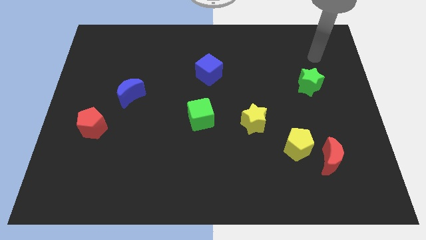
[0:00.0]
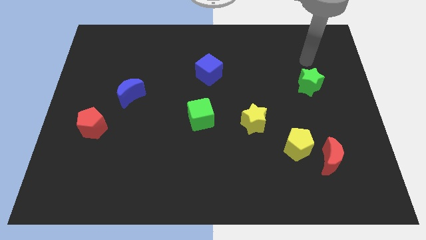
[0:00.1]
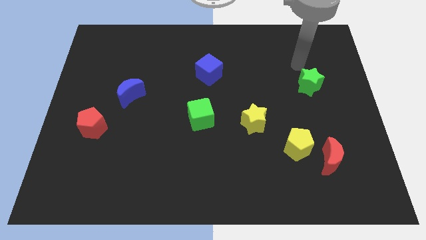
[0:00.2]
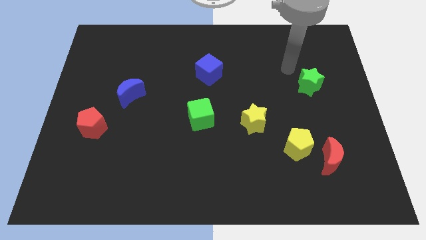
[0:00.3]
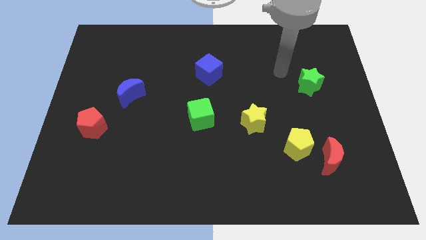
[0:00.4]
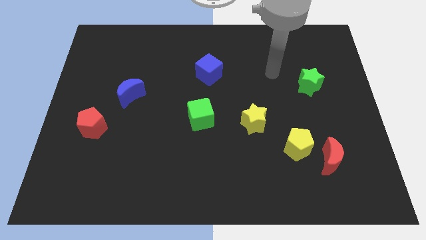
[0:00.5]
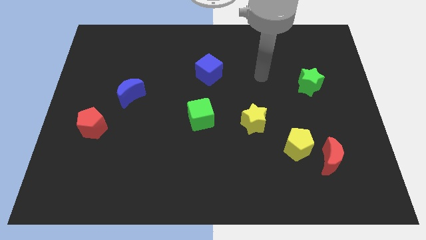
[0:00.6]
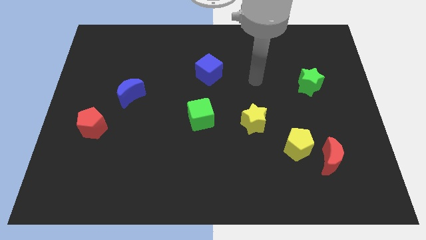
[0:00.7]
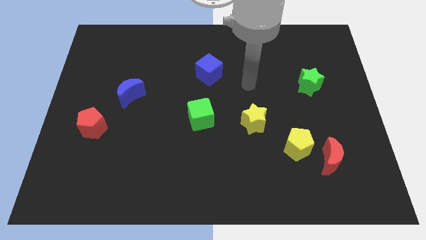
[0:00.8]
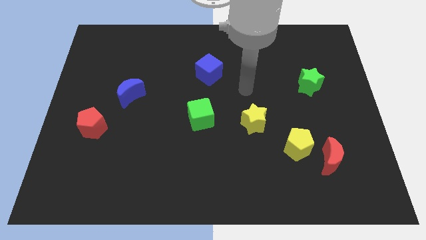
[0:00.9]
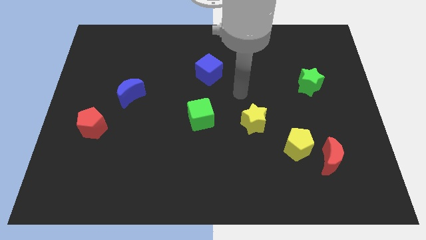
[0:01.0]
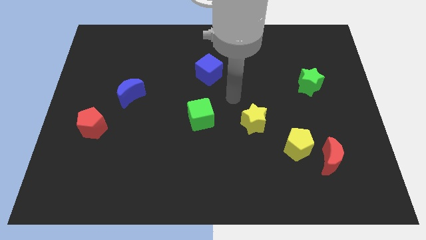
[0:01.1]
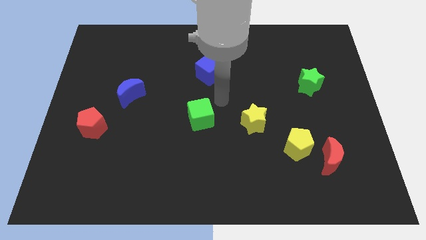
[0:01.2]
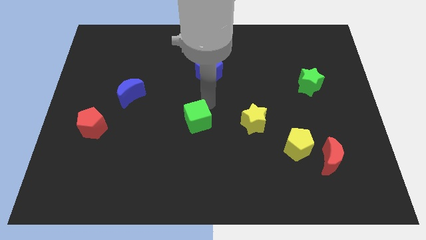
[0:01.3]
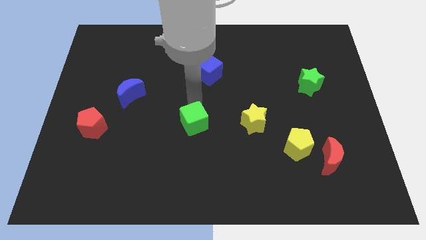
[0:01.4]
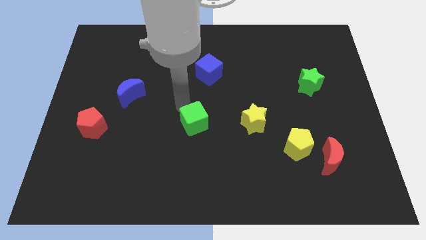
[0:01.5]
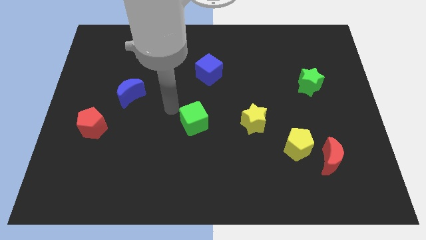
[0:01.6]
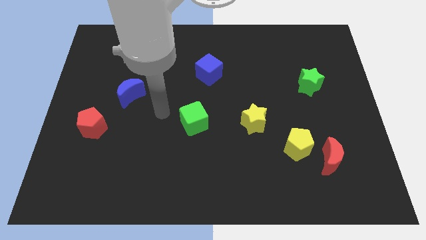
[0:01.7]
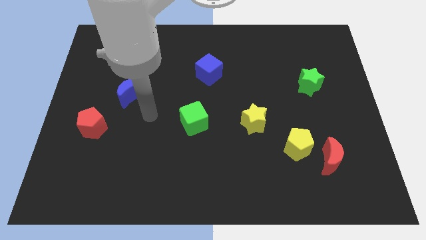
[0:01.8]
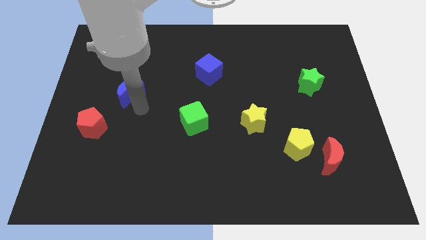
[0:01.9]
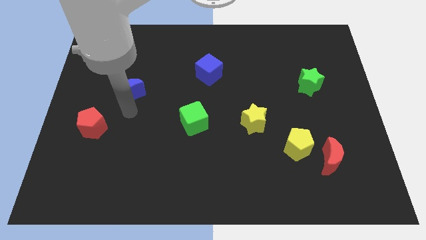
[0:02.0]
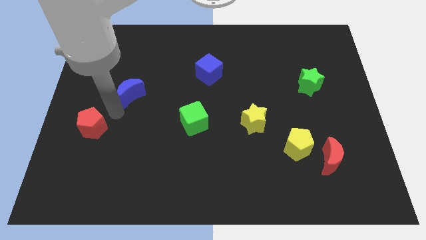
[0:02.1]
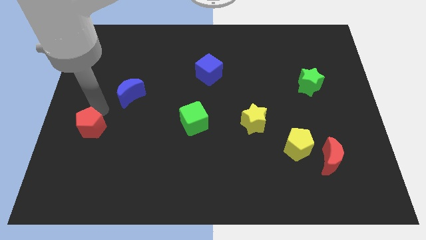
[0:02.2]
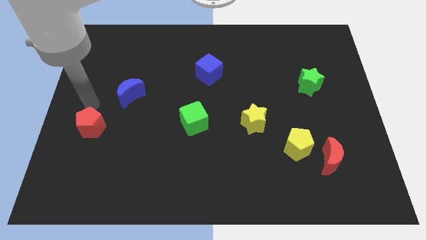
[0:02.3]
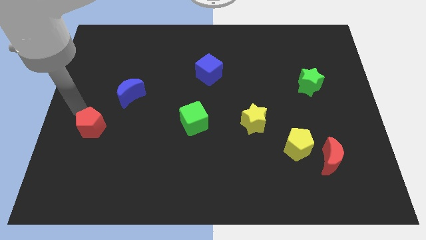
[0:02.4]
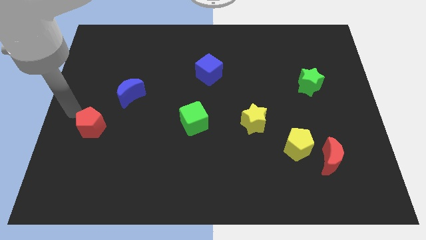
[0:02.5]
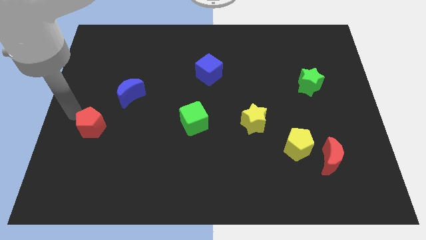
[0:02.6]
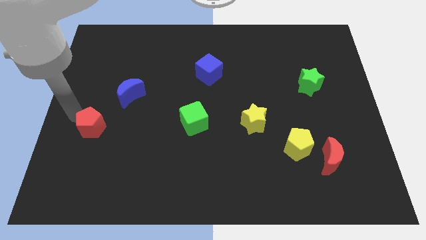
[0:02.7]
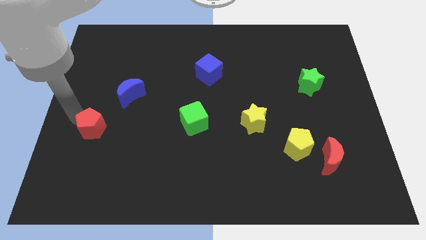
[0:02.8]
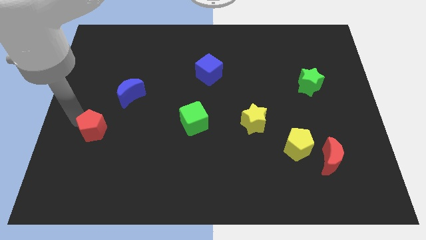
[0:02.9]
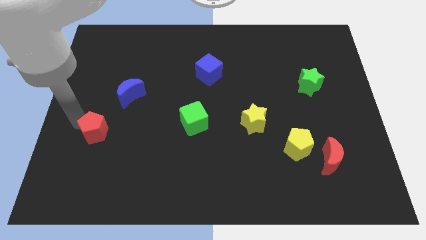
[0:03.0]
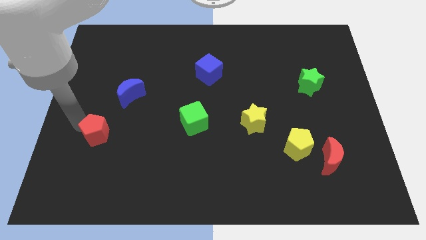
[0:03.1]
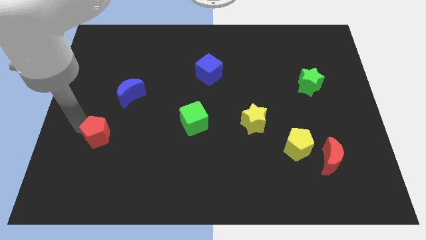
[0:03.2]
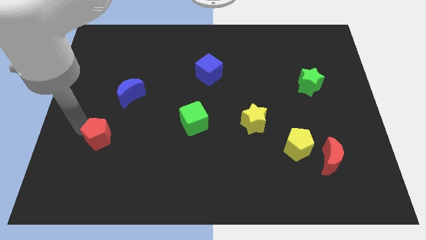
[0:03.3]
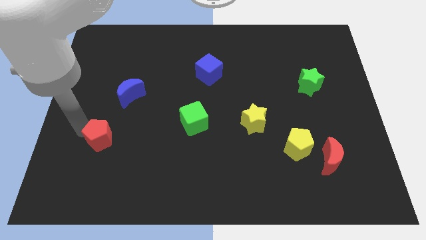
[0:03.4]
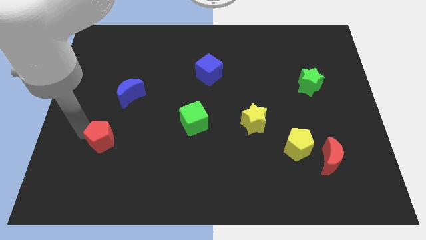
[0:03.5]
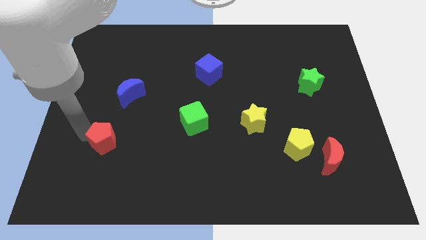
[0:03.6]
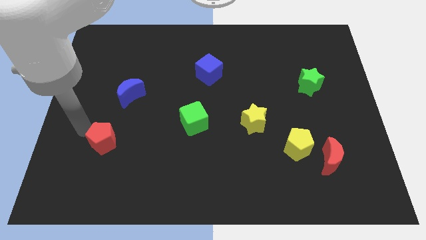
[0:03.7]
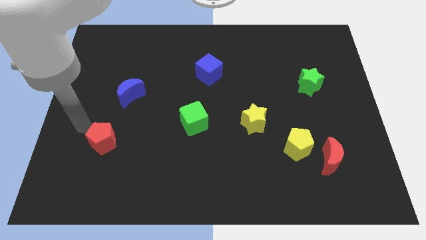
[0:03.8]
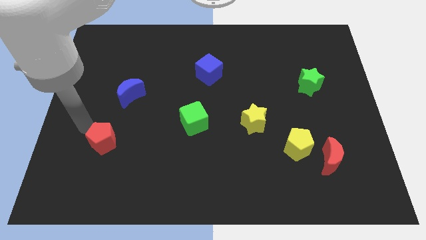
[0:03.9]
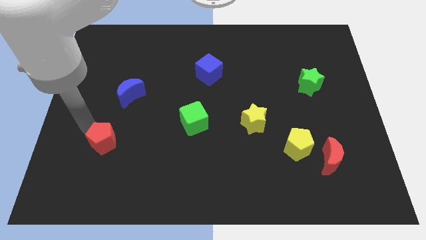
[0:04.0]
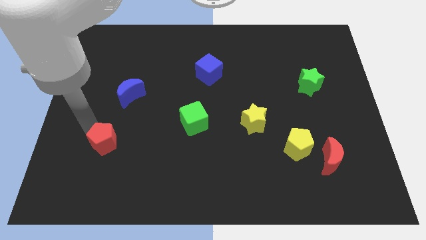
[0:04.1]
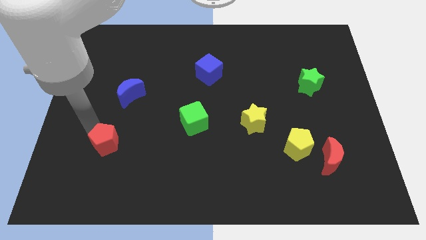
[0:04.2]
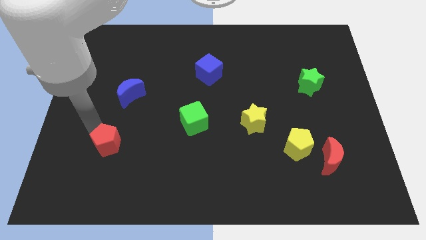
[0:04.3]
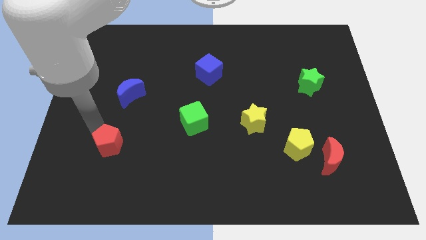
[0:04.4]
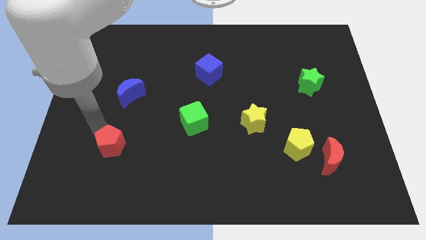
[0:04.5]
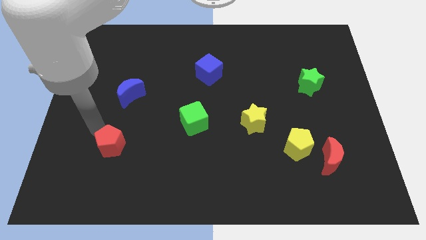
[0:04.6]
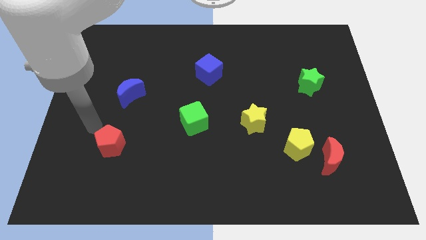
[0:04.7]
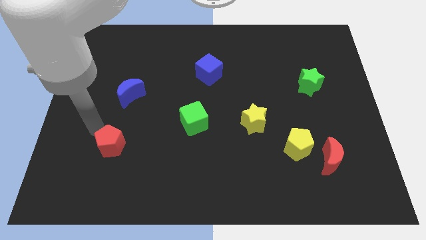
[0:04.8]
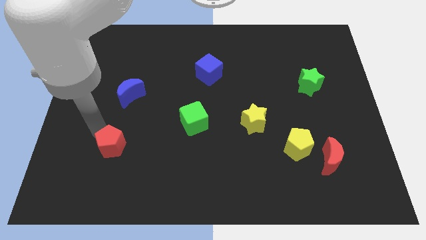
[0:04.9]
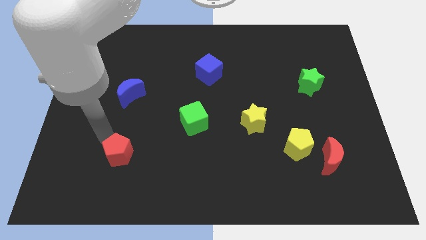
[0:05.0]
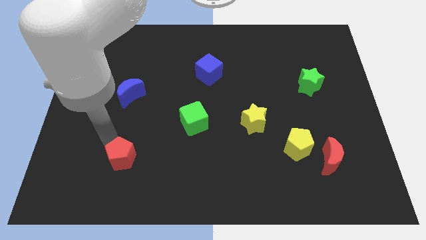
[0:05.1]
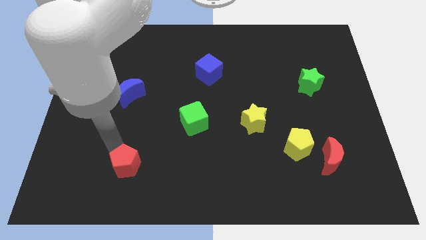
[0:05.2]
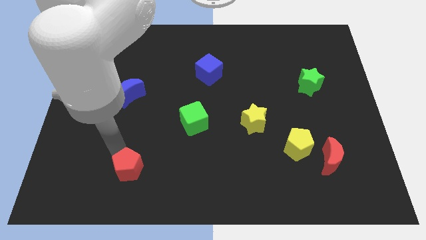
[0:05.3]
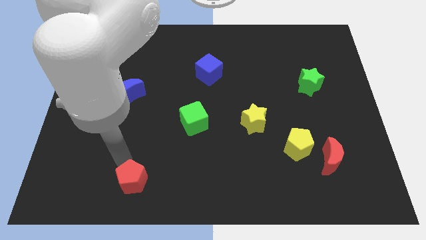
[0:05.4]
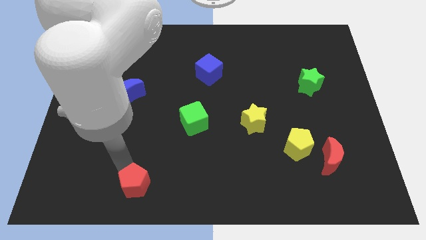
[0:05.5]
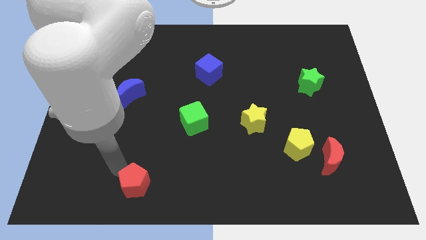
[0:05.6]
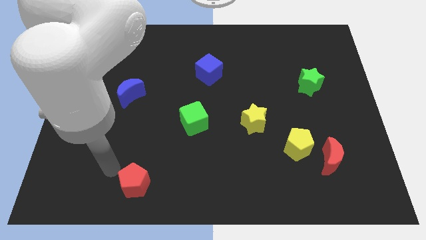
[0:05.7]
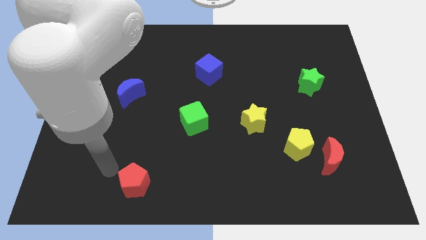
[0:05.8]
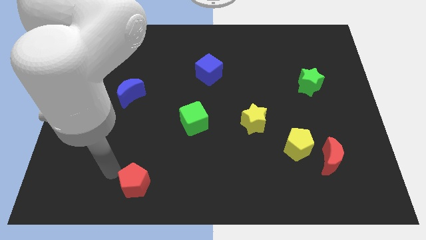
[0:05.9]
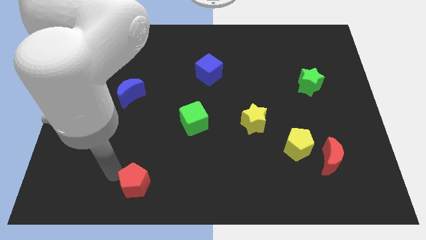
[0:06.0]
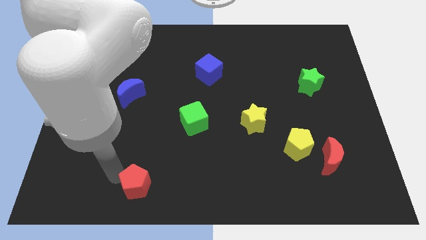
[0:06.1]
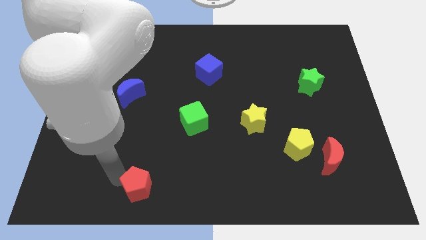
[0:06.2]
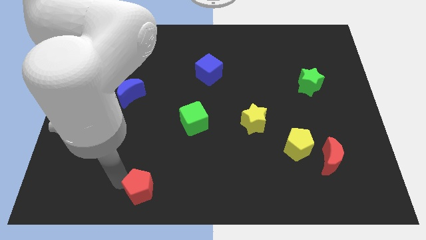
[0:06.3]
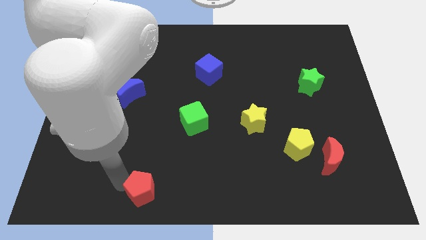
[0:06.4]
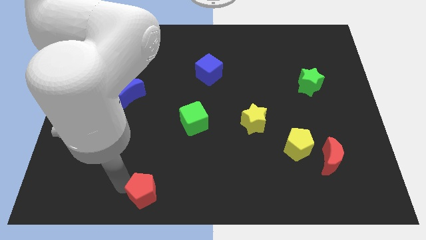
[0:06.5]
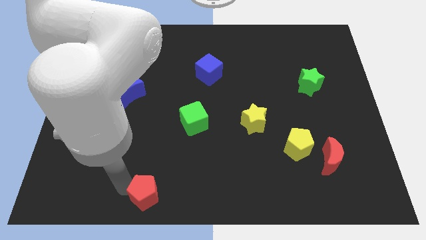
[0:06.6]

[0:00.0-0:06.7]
put the red pentagon to the bottom side
